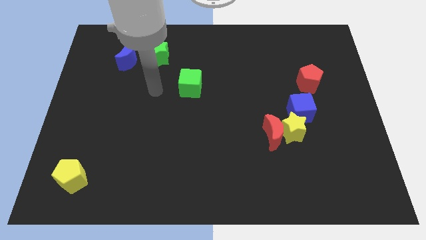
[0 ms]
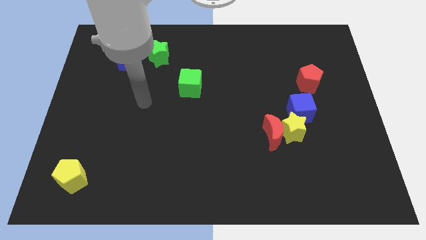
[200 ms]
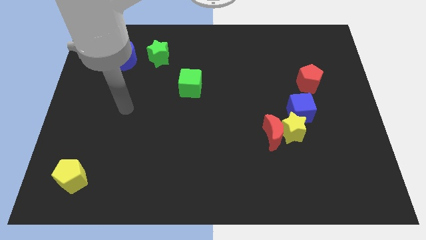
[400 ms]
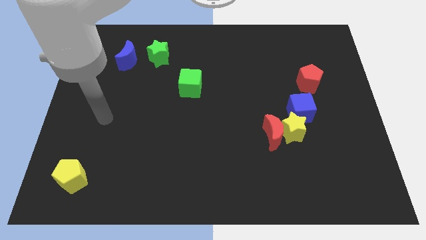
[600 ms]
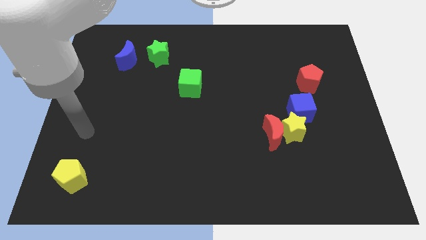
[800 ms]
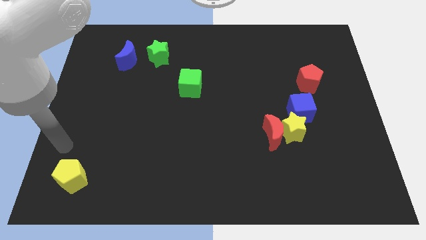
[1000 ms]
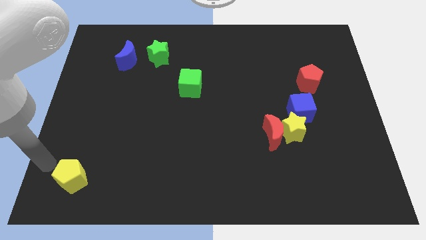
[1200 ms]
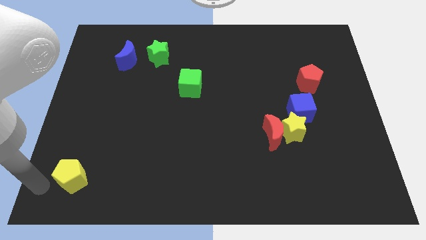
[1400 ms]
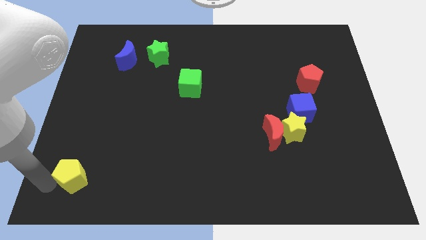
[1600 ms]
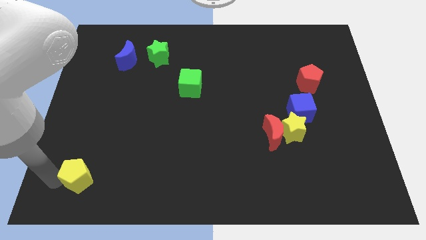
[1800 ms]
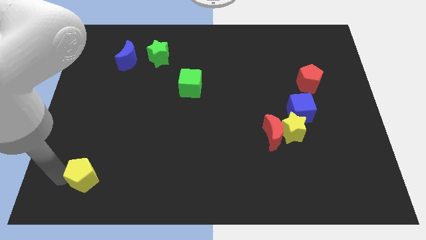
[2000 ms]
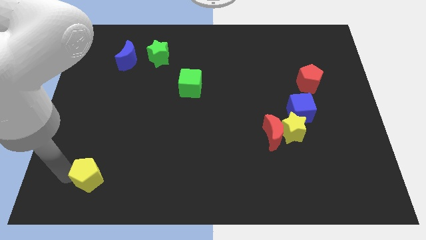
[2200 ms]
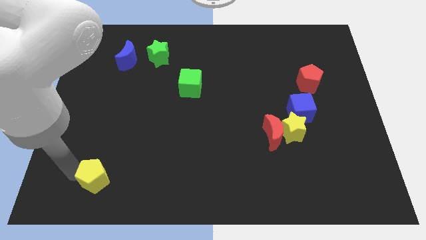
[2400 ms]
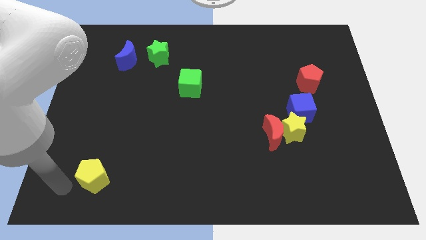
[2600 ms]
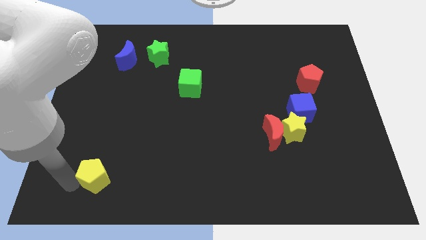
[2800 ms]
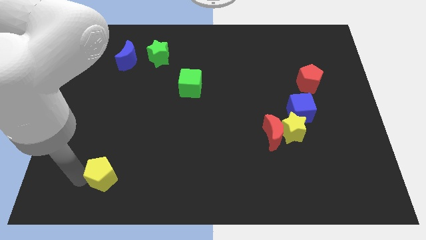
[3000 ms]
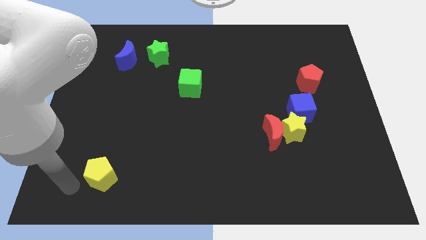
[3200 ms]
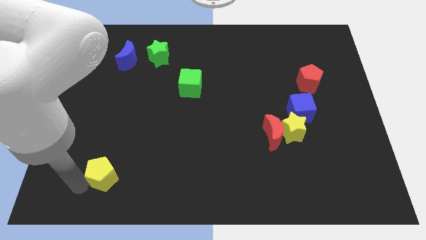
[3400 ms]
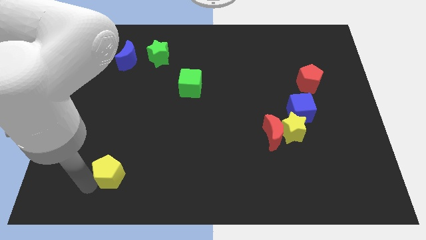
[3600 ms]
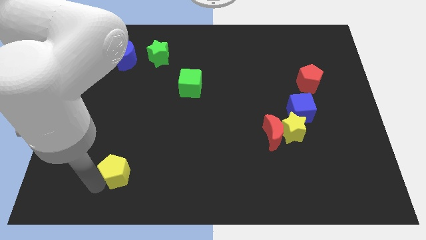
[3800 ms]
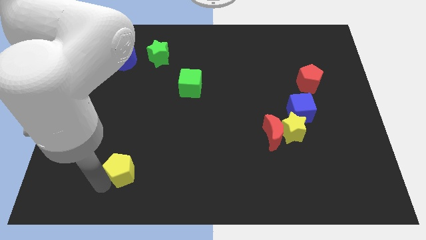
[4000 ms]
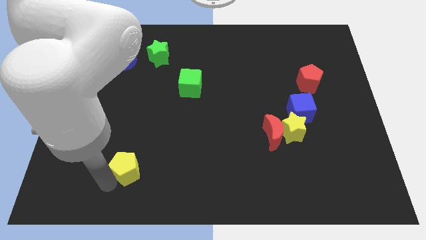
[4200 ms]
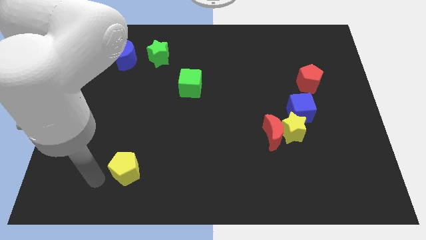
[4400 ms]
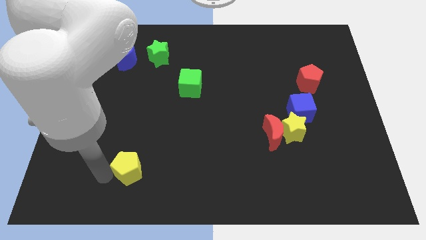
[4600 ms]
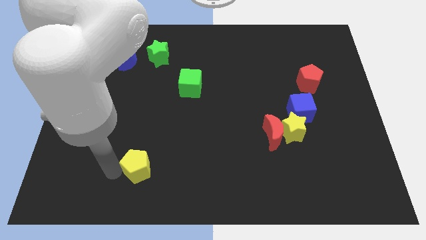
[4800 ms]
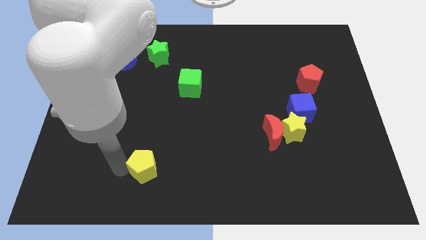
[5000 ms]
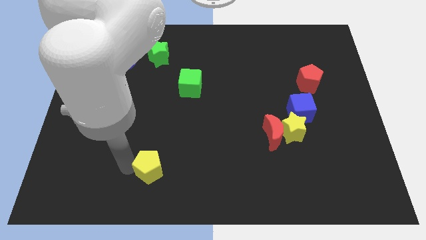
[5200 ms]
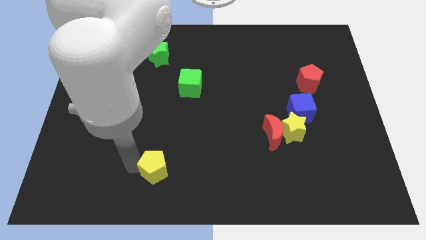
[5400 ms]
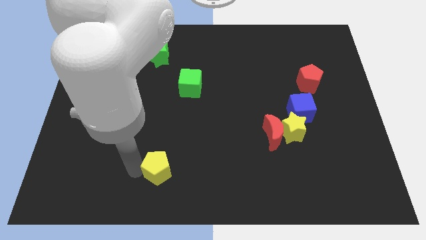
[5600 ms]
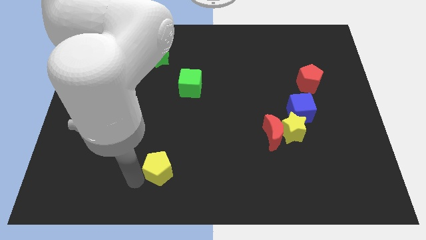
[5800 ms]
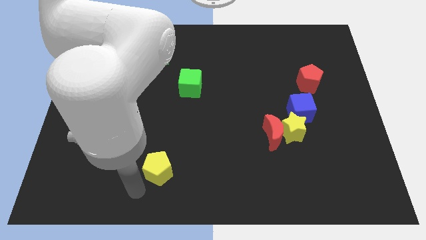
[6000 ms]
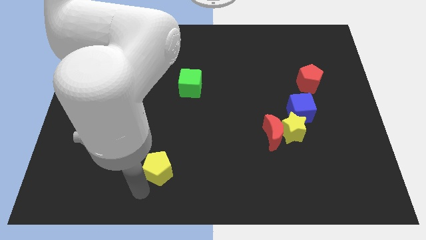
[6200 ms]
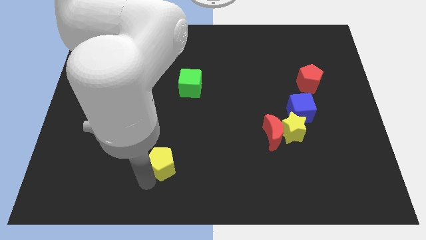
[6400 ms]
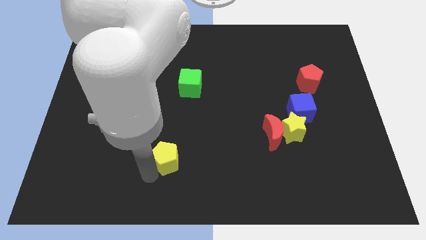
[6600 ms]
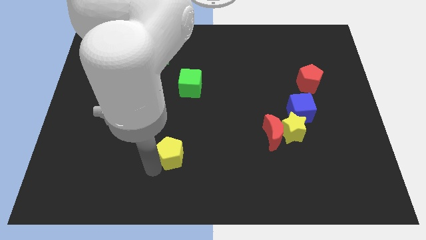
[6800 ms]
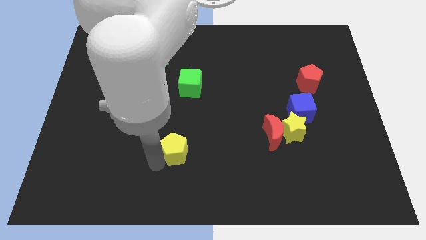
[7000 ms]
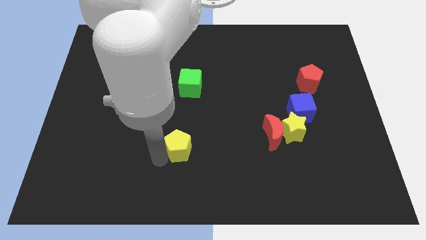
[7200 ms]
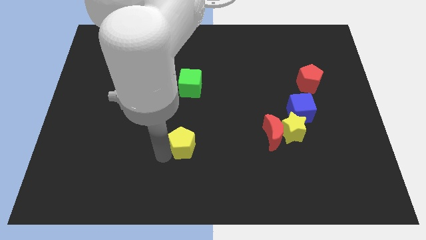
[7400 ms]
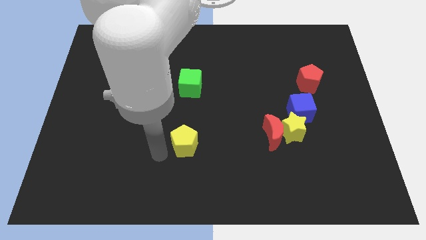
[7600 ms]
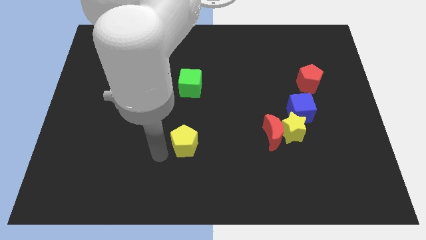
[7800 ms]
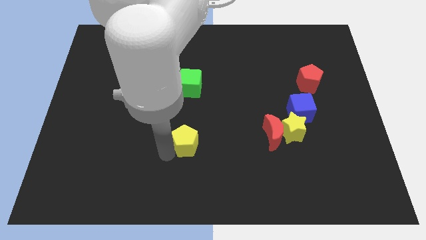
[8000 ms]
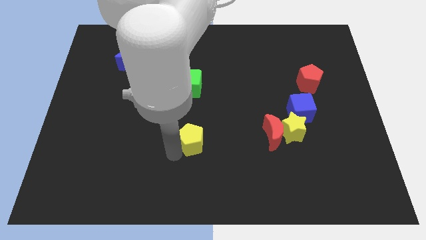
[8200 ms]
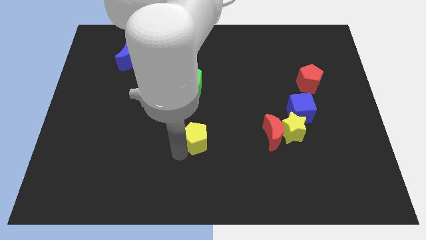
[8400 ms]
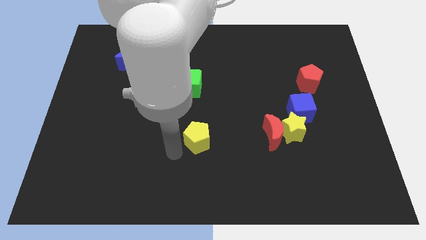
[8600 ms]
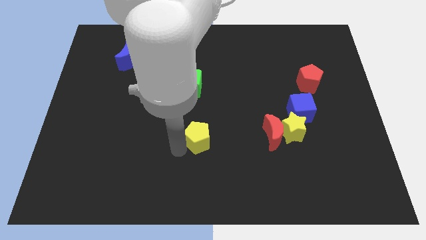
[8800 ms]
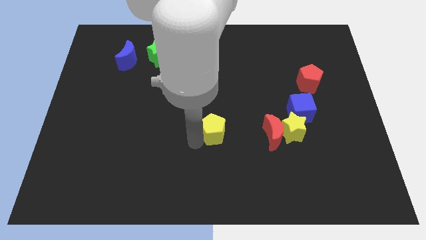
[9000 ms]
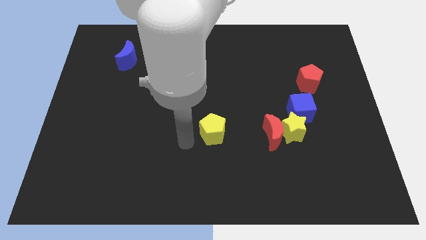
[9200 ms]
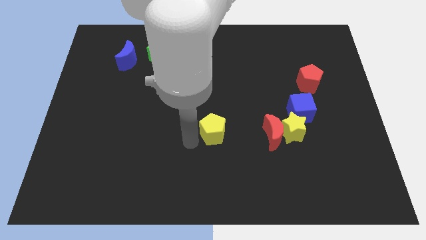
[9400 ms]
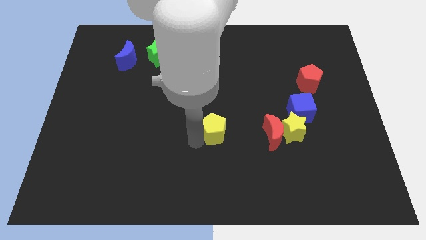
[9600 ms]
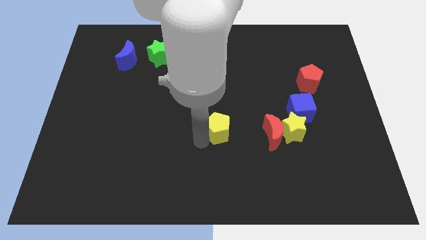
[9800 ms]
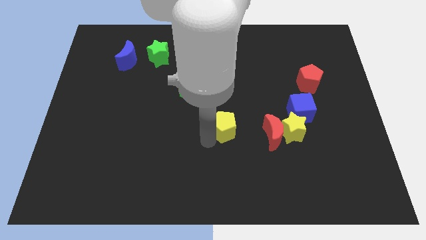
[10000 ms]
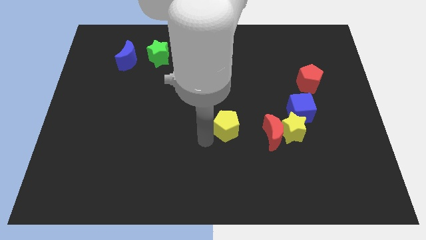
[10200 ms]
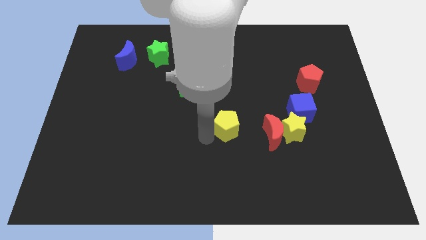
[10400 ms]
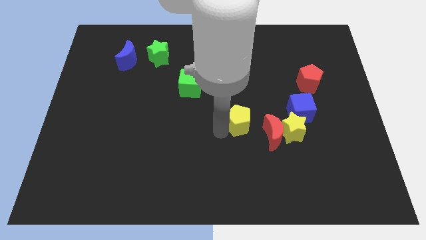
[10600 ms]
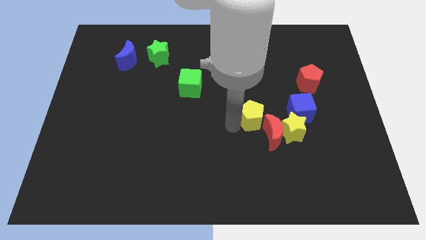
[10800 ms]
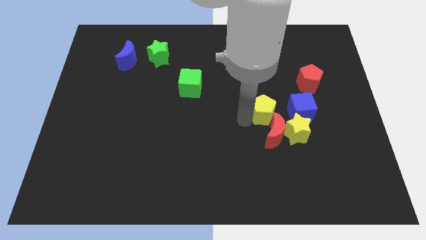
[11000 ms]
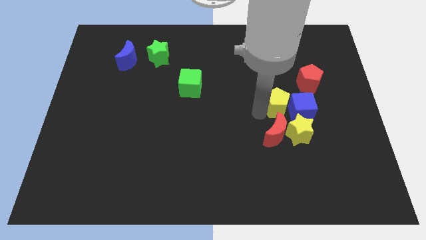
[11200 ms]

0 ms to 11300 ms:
move the yellow pentagon next to the blue cube
